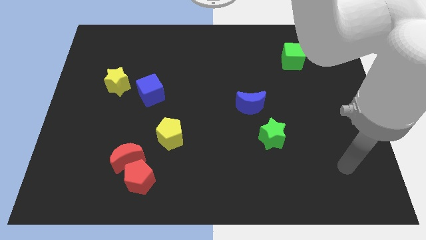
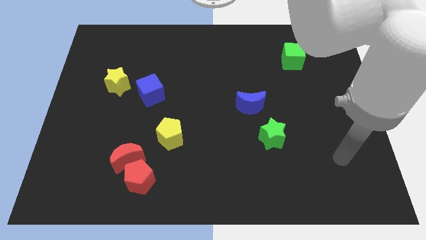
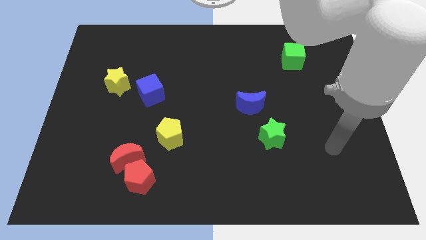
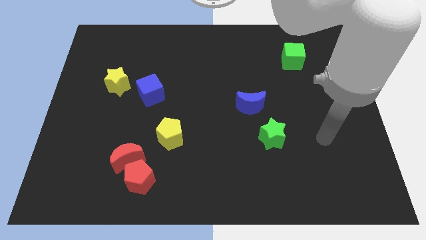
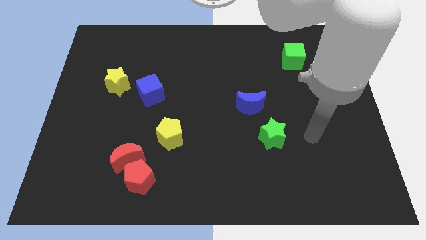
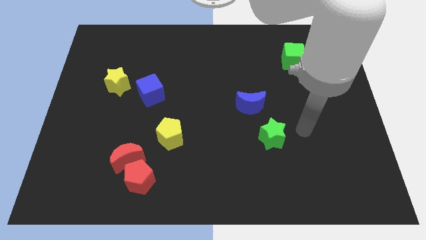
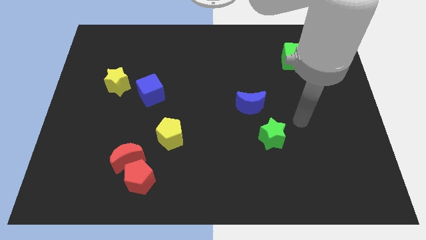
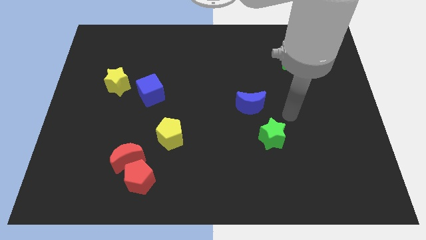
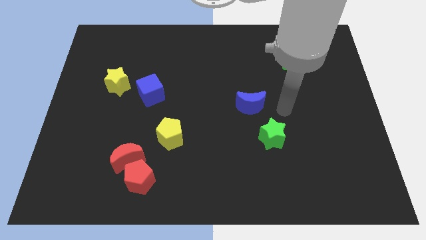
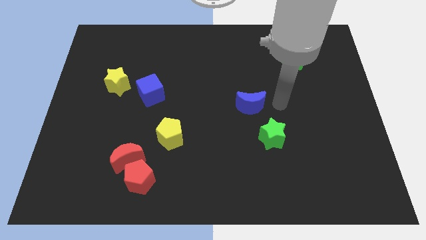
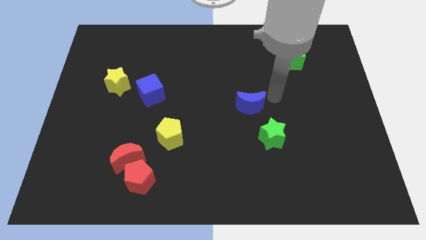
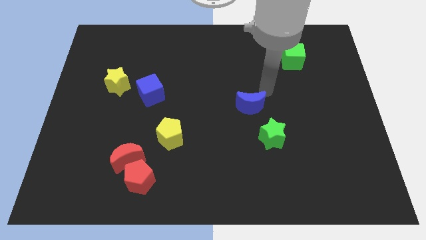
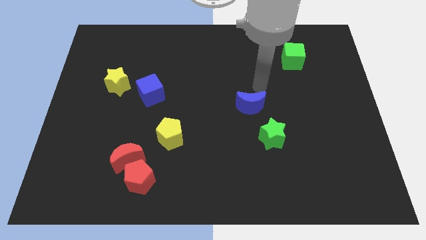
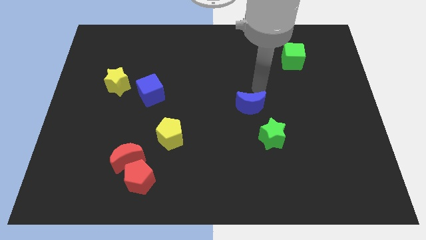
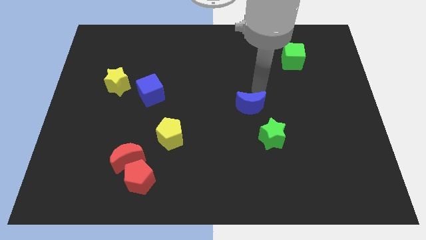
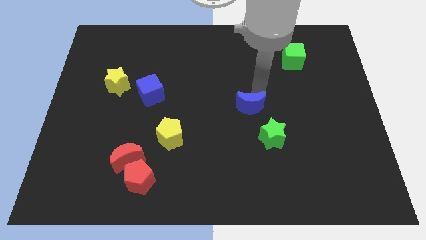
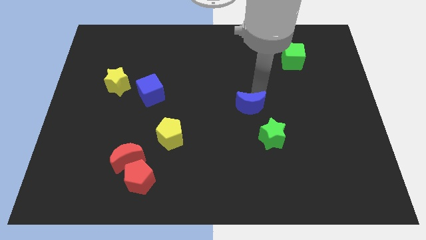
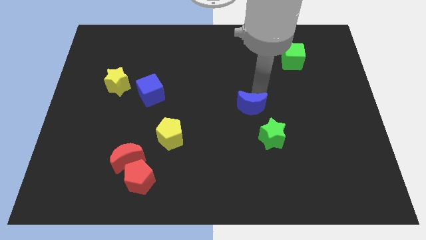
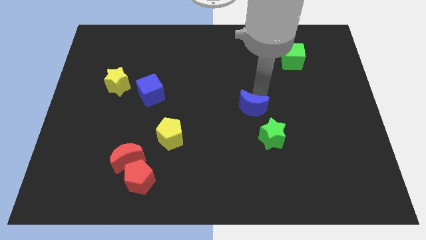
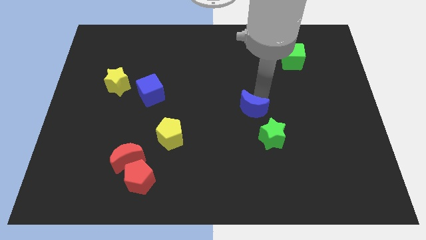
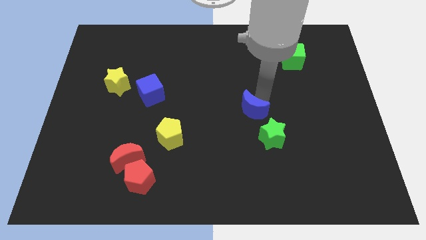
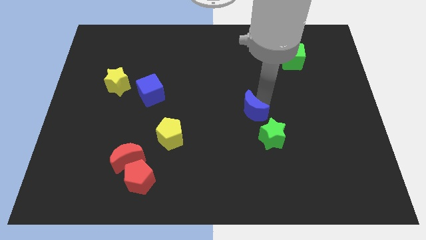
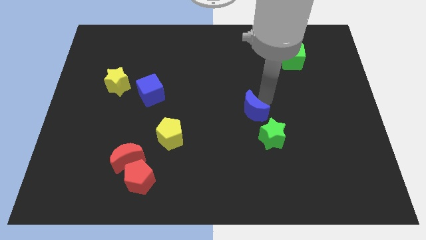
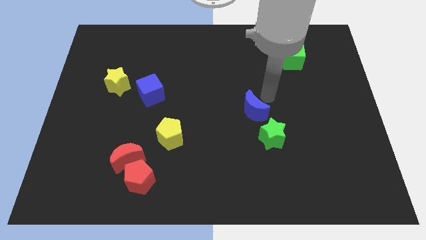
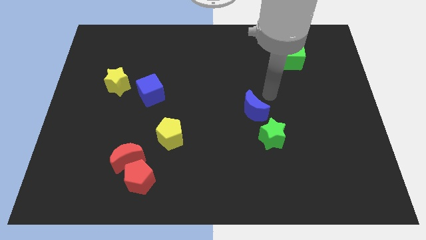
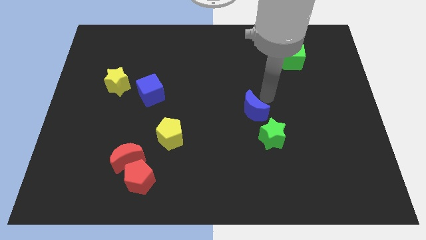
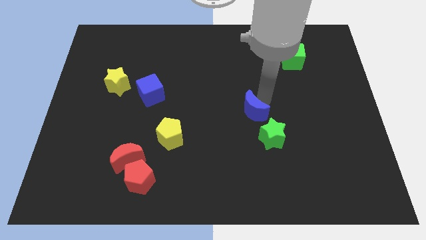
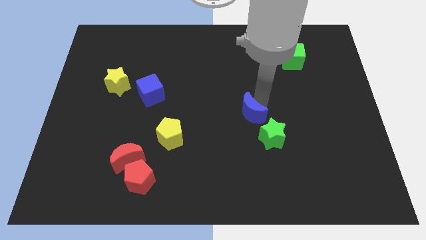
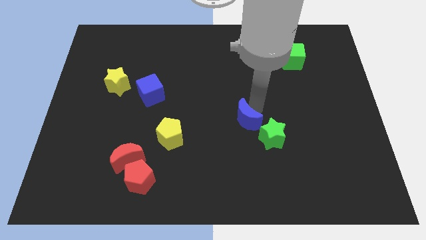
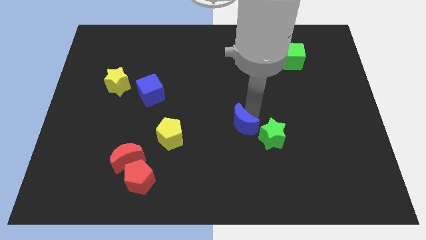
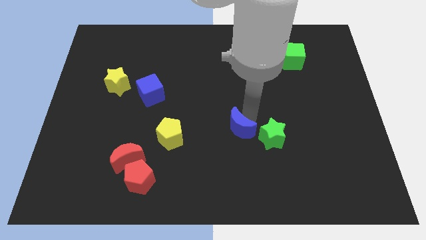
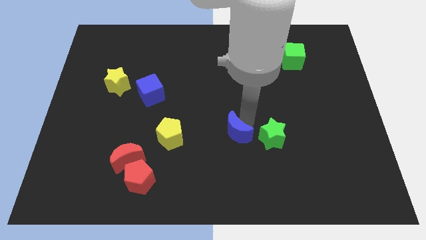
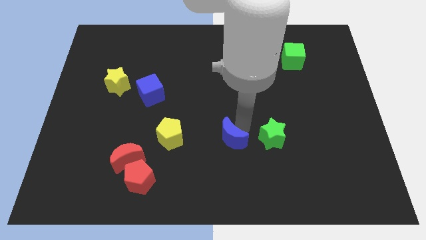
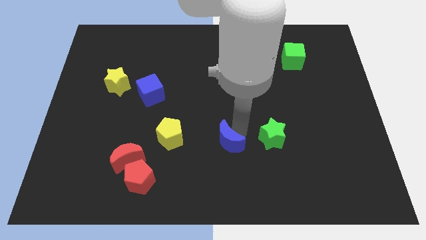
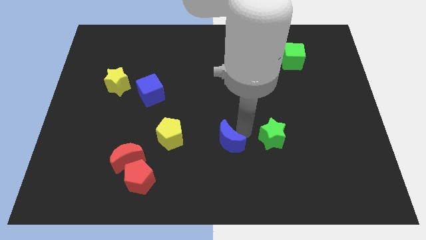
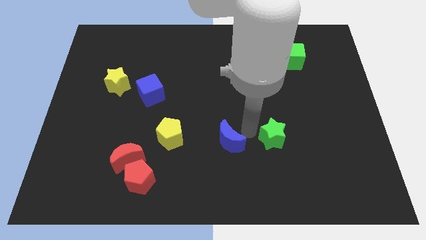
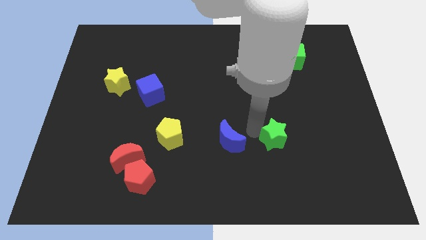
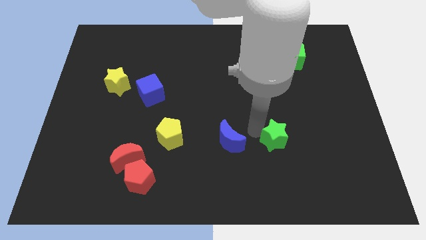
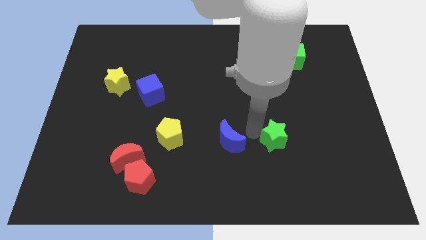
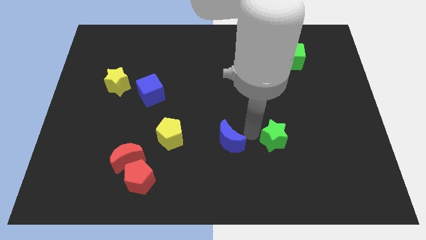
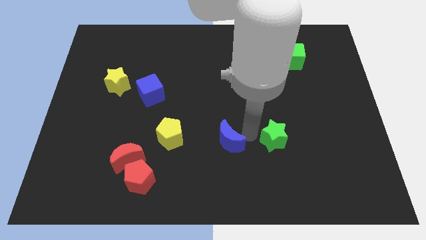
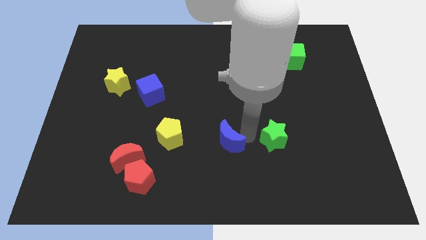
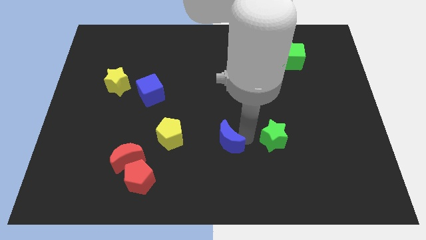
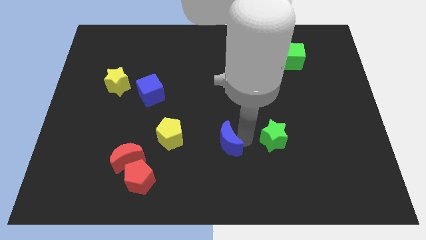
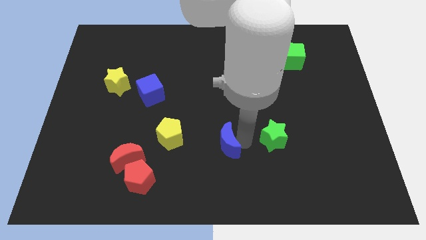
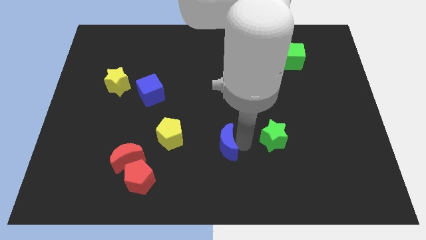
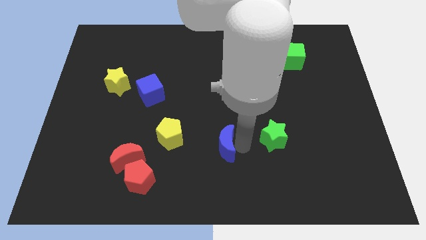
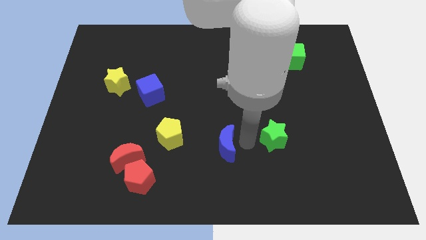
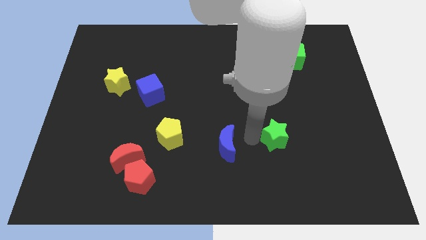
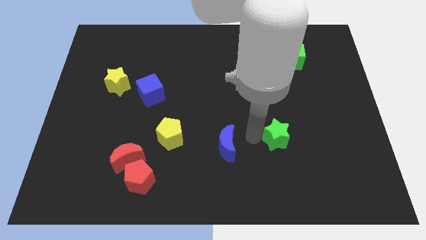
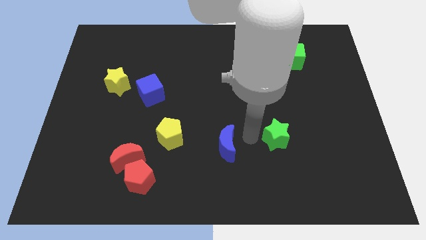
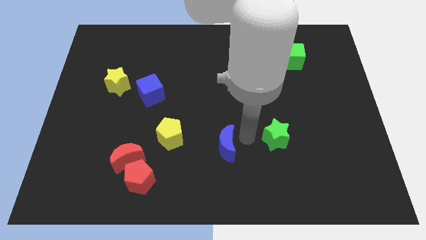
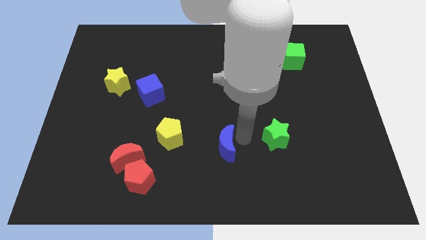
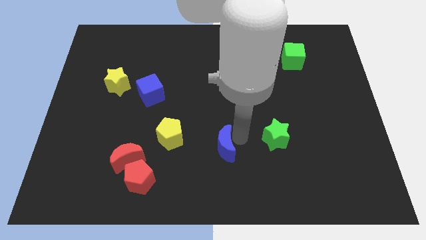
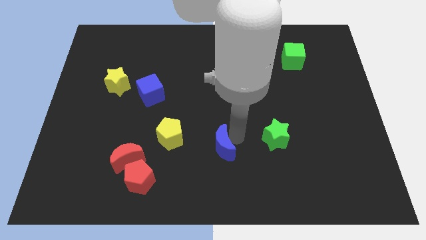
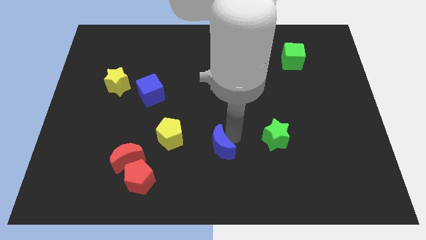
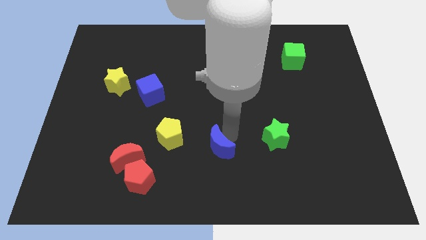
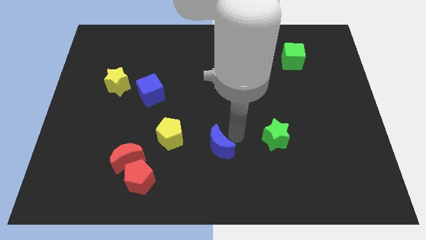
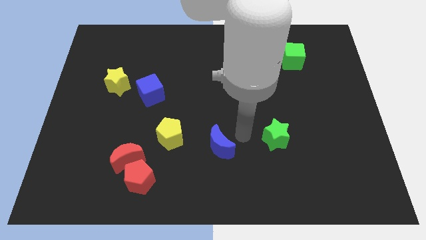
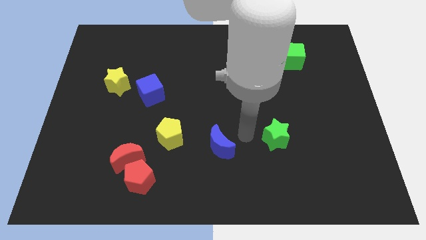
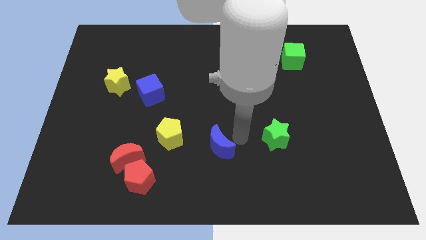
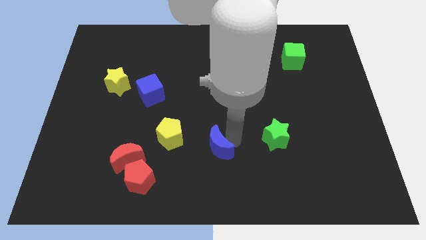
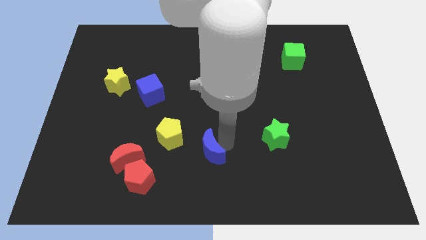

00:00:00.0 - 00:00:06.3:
move the blue moon to the bottom right of the yellow pentagon
